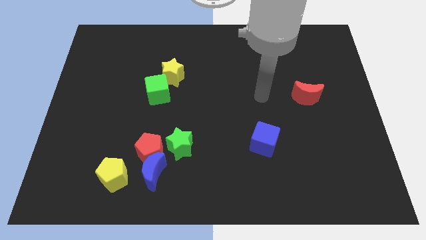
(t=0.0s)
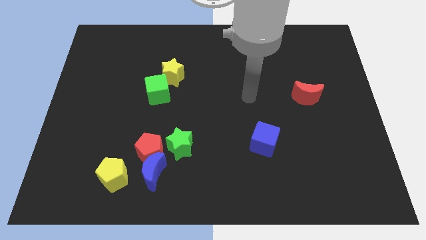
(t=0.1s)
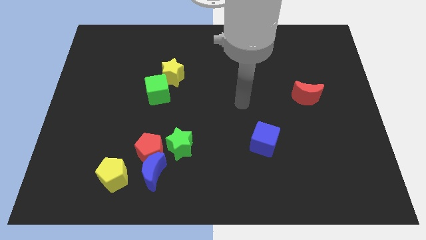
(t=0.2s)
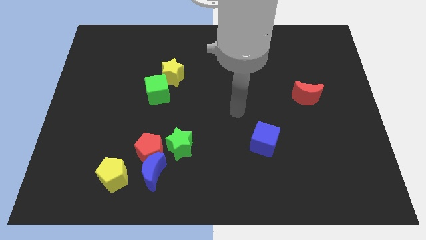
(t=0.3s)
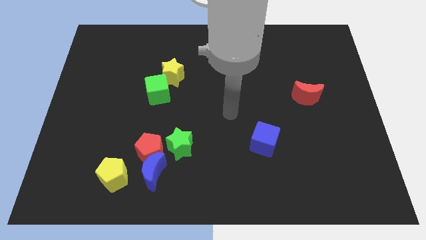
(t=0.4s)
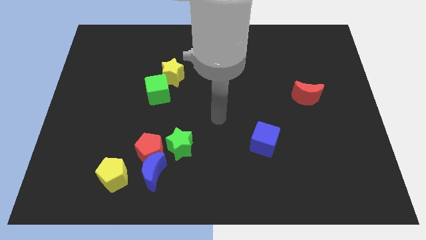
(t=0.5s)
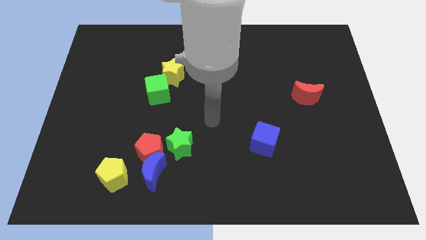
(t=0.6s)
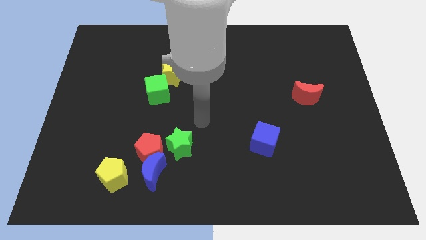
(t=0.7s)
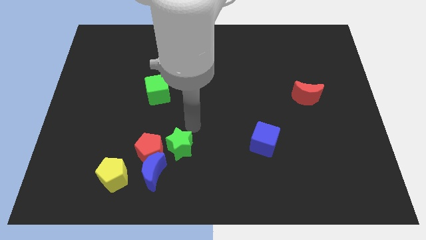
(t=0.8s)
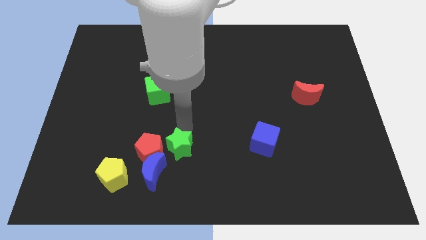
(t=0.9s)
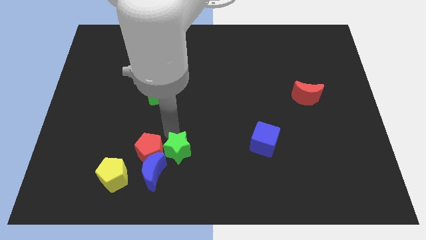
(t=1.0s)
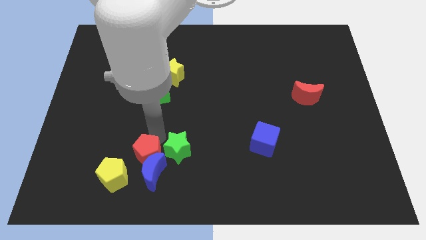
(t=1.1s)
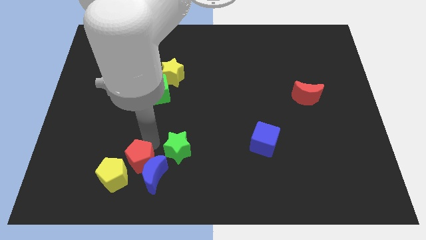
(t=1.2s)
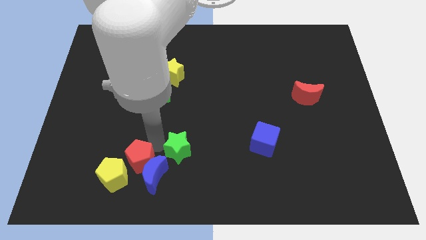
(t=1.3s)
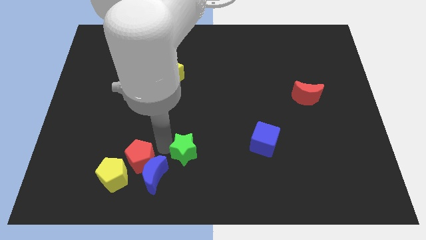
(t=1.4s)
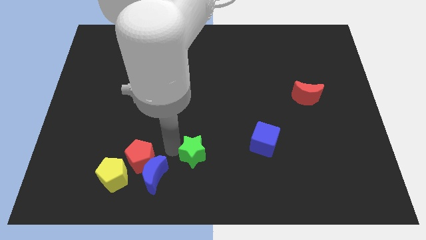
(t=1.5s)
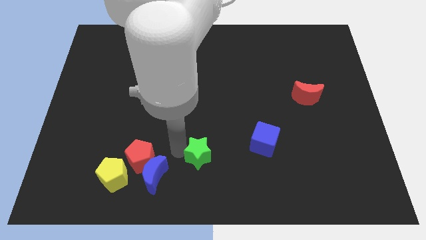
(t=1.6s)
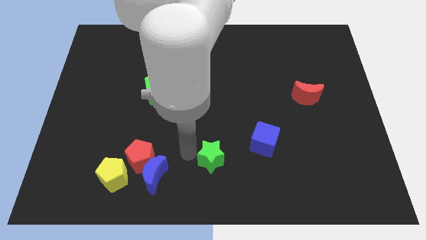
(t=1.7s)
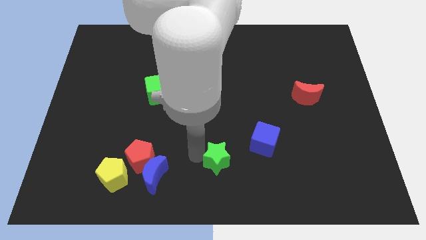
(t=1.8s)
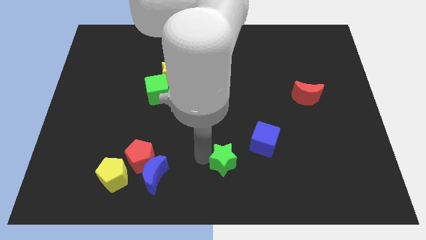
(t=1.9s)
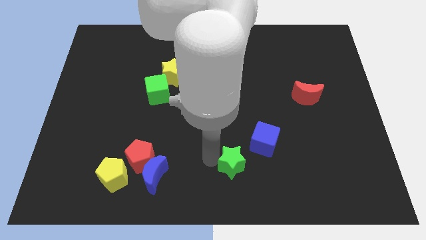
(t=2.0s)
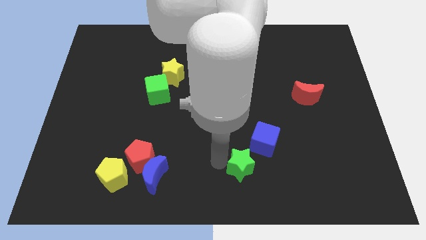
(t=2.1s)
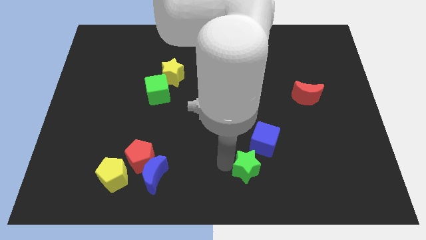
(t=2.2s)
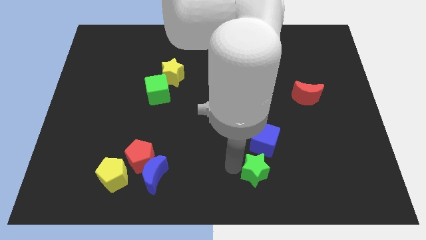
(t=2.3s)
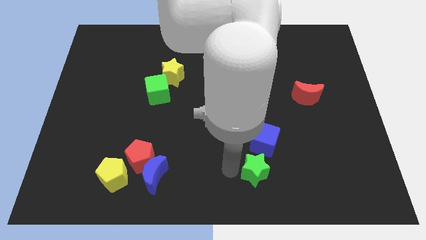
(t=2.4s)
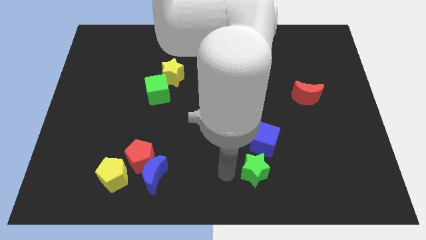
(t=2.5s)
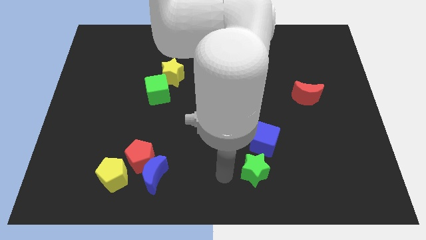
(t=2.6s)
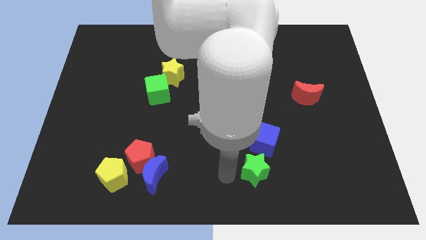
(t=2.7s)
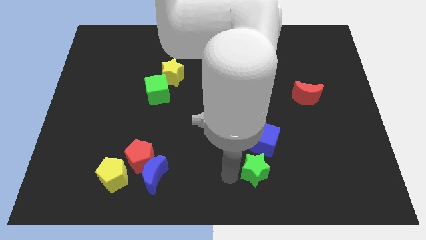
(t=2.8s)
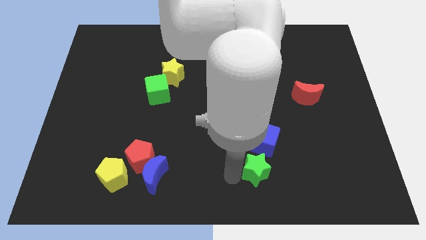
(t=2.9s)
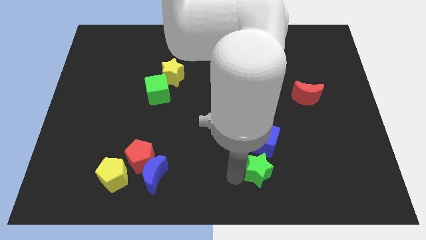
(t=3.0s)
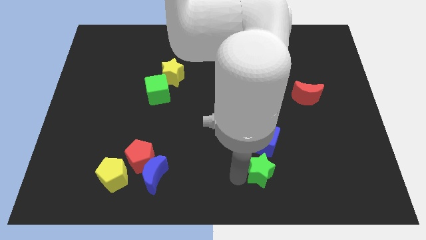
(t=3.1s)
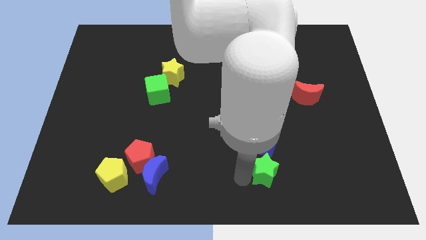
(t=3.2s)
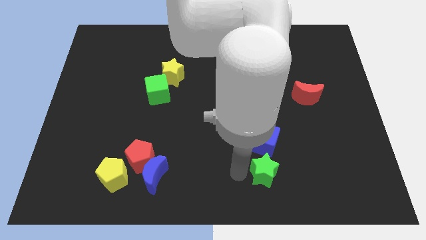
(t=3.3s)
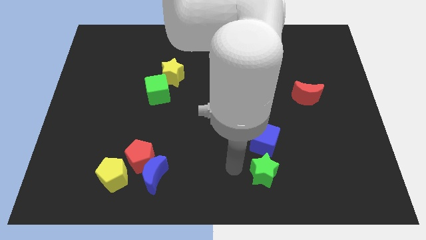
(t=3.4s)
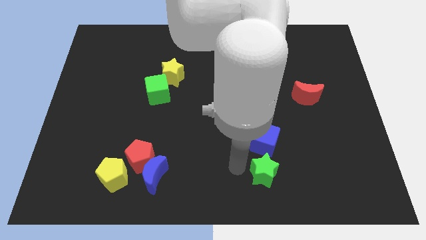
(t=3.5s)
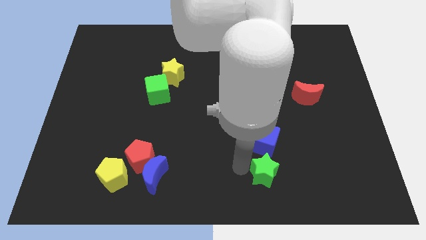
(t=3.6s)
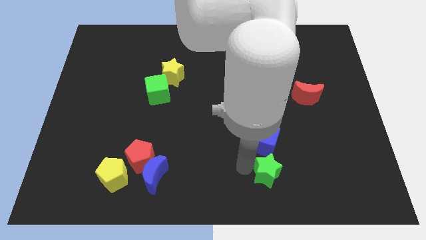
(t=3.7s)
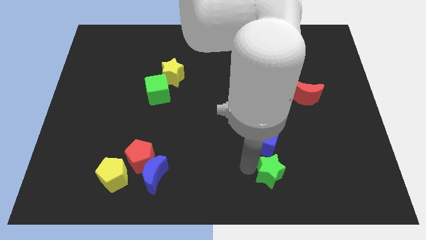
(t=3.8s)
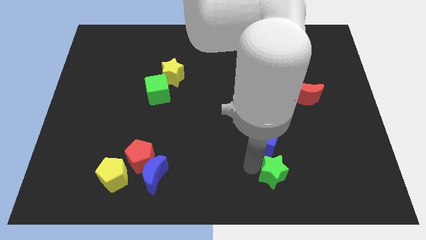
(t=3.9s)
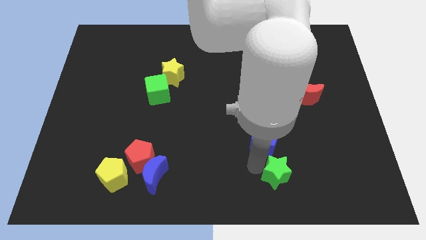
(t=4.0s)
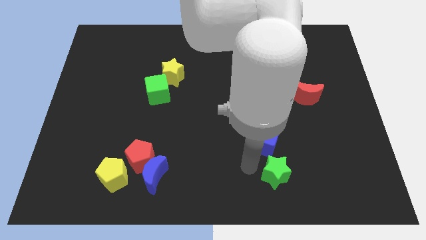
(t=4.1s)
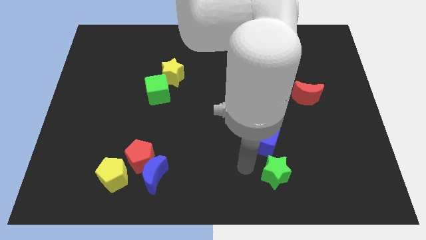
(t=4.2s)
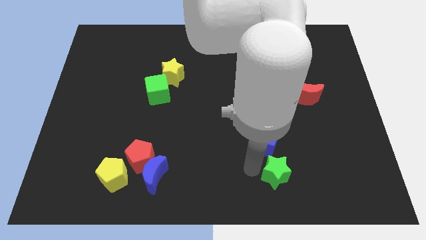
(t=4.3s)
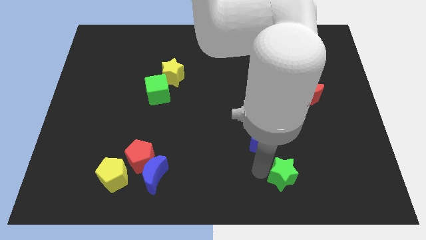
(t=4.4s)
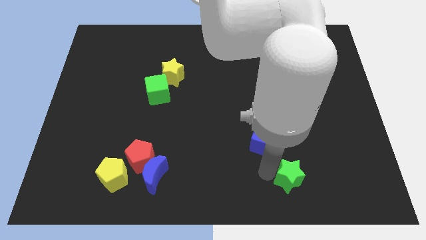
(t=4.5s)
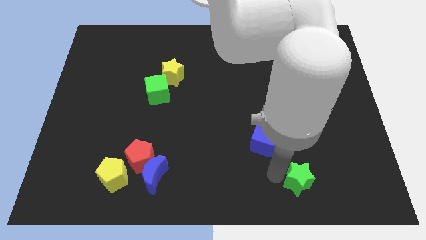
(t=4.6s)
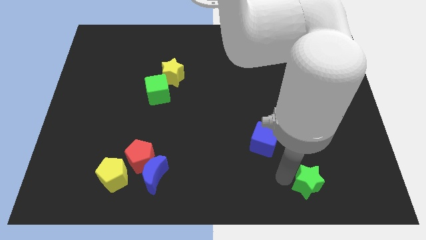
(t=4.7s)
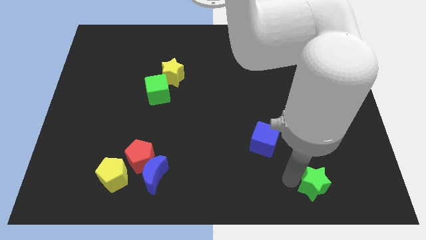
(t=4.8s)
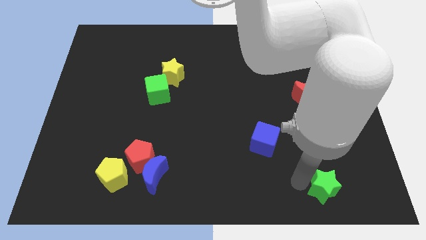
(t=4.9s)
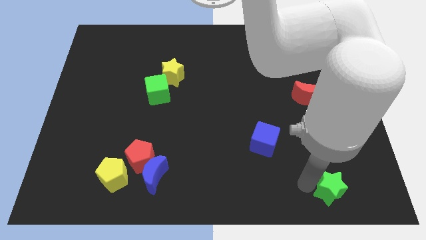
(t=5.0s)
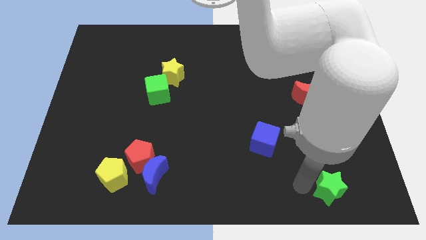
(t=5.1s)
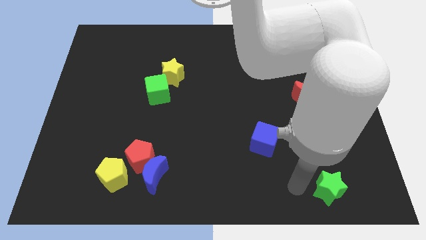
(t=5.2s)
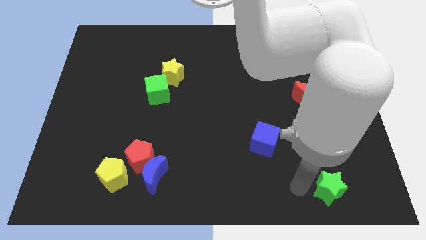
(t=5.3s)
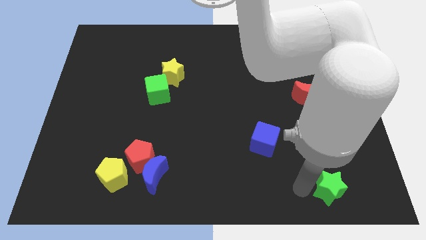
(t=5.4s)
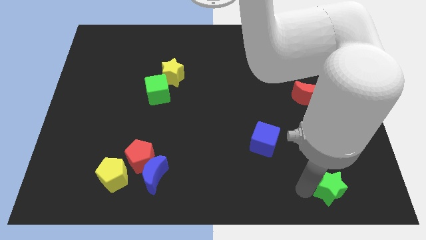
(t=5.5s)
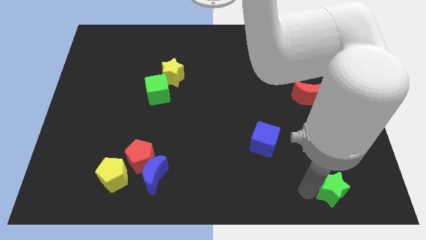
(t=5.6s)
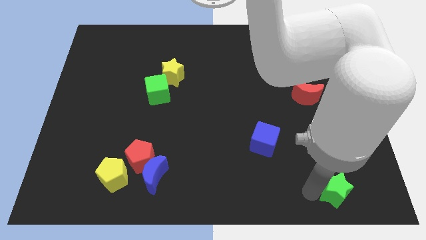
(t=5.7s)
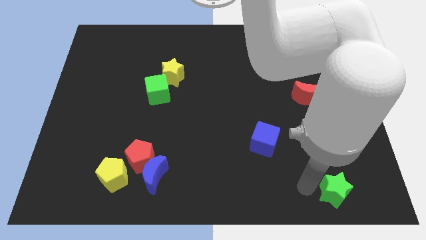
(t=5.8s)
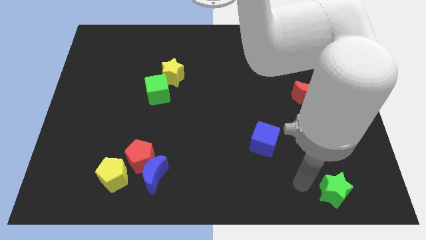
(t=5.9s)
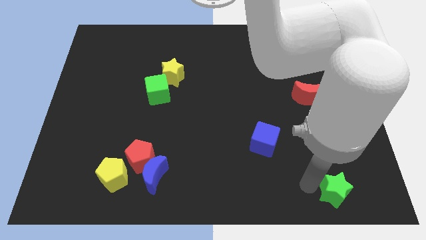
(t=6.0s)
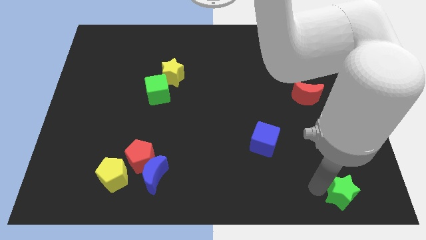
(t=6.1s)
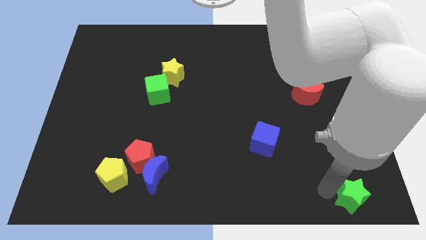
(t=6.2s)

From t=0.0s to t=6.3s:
put the green star to the lower right corner
